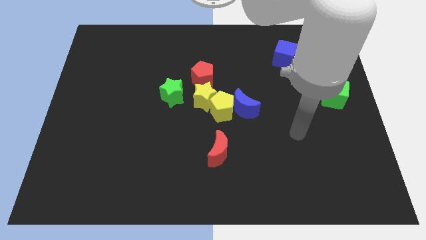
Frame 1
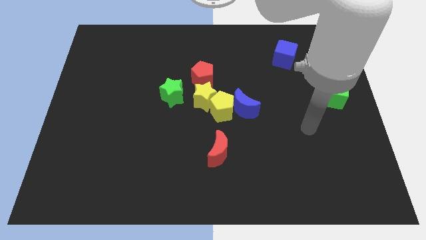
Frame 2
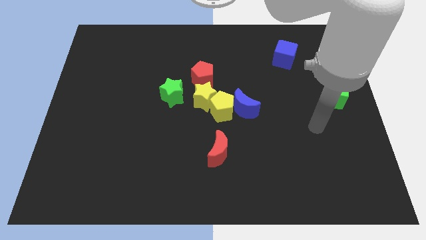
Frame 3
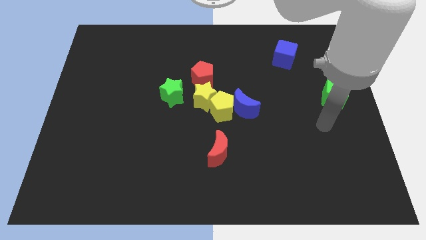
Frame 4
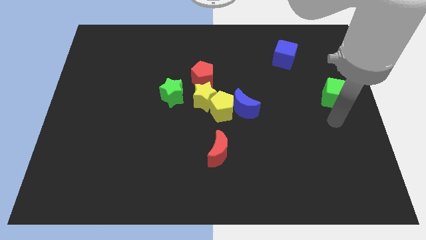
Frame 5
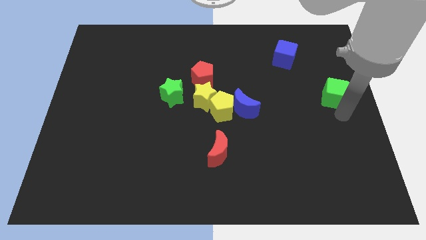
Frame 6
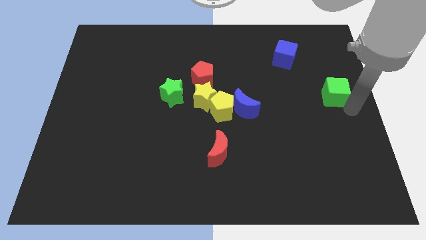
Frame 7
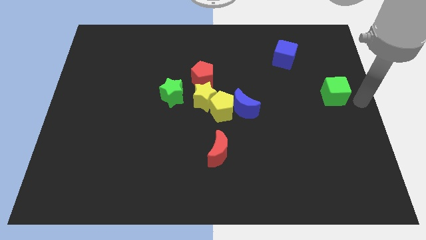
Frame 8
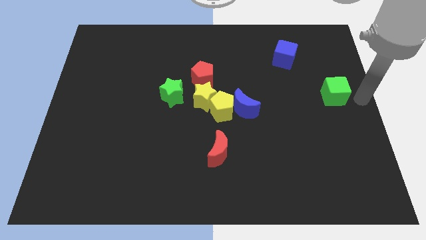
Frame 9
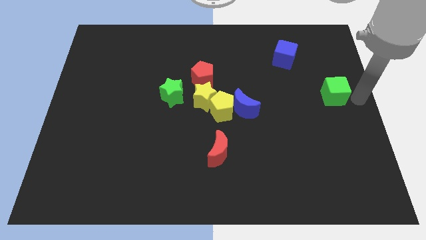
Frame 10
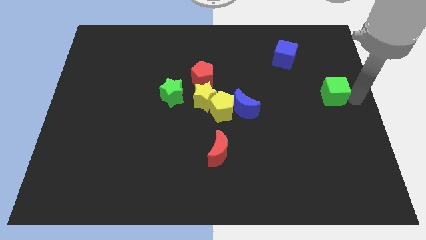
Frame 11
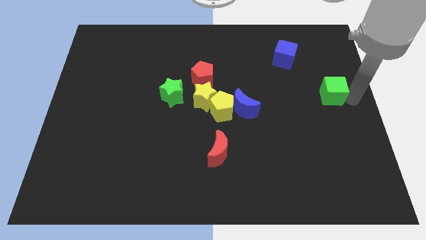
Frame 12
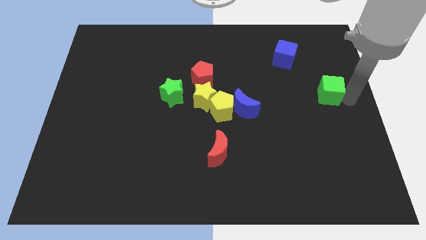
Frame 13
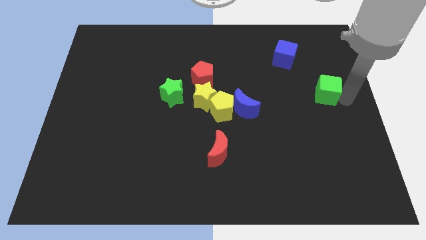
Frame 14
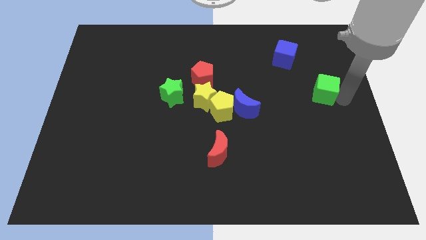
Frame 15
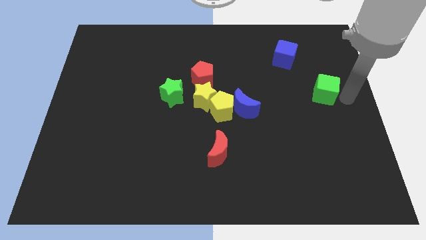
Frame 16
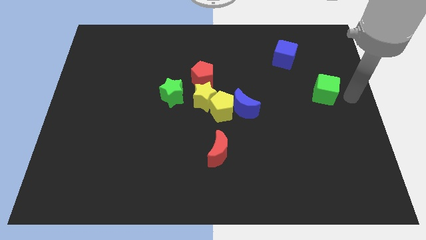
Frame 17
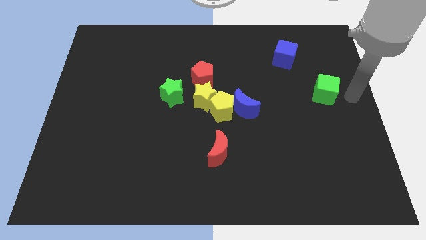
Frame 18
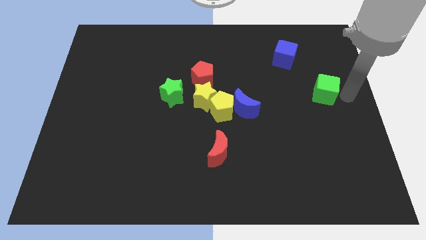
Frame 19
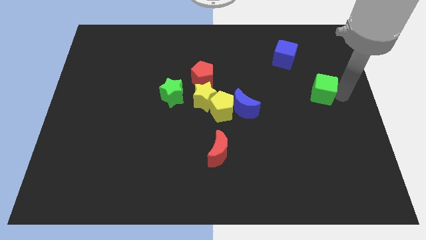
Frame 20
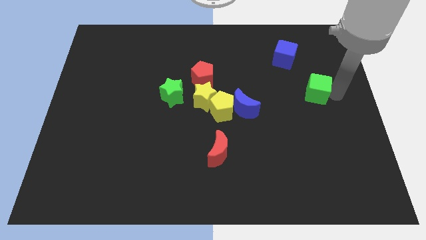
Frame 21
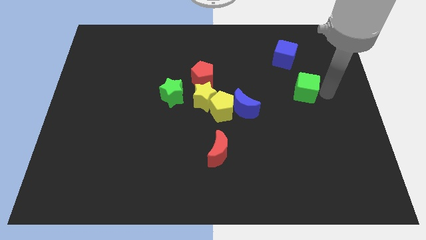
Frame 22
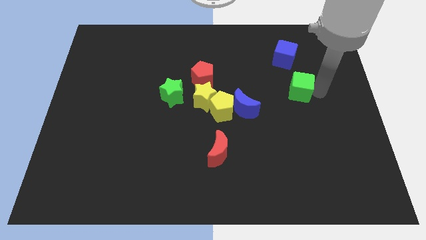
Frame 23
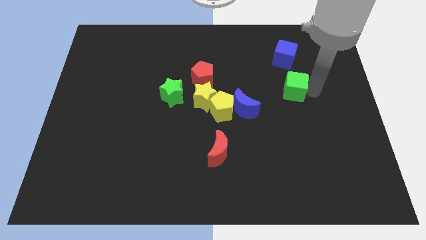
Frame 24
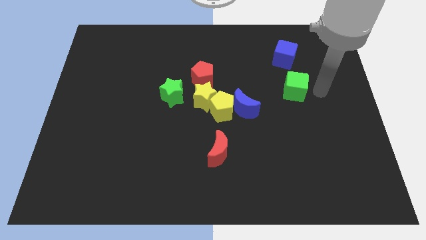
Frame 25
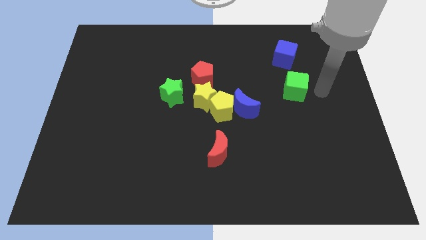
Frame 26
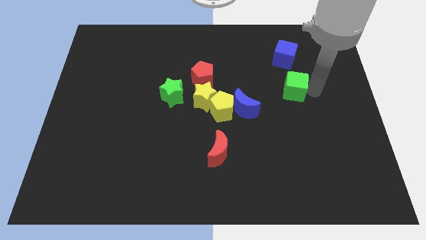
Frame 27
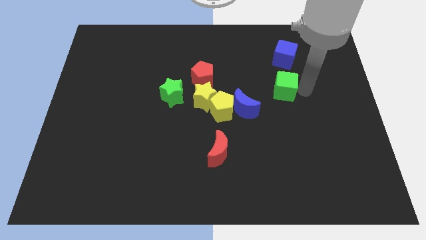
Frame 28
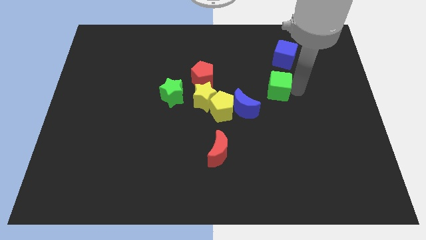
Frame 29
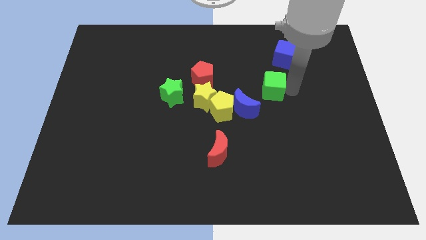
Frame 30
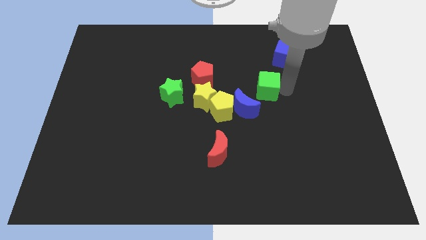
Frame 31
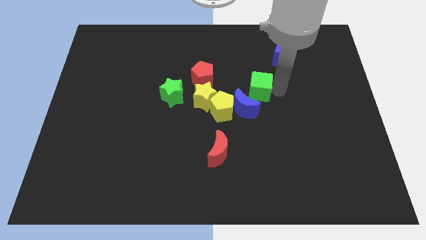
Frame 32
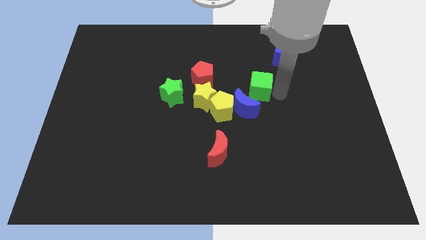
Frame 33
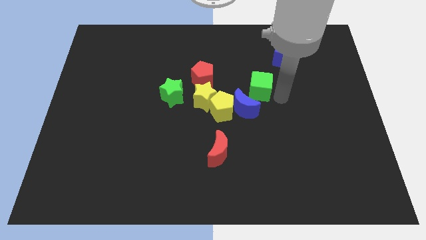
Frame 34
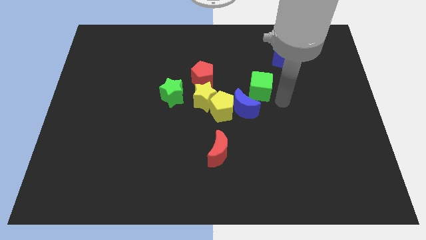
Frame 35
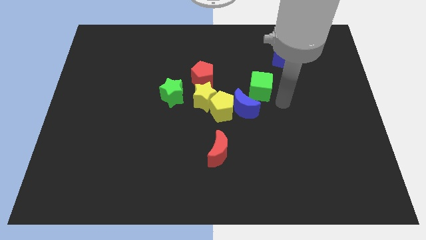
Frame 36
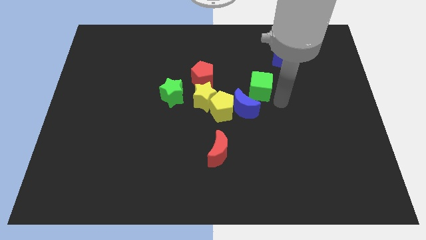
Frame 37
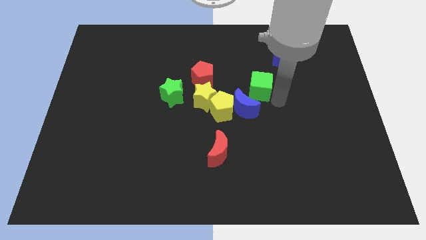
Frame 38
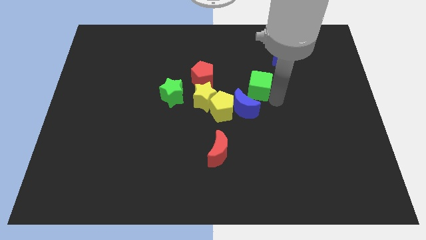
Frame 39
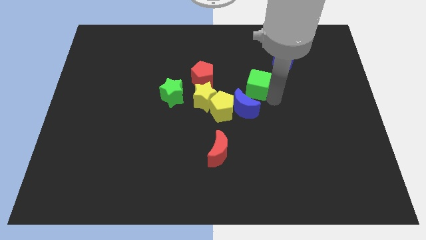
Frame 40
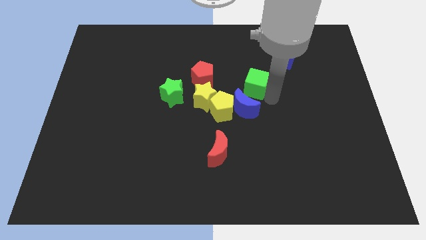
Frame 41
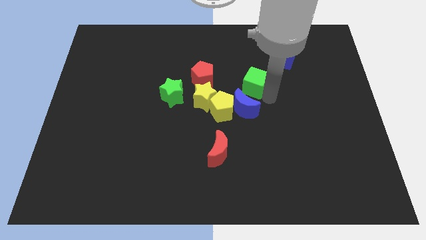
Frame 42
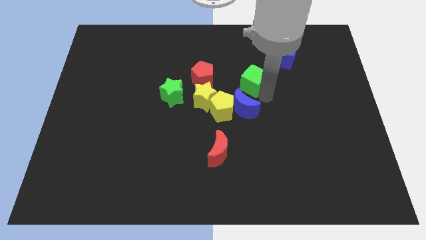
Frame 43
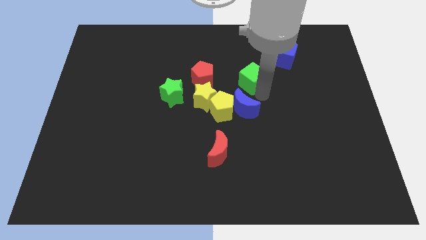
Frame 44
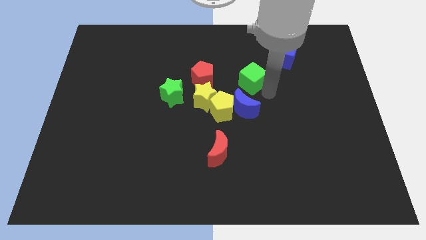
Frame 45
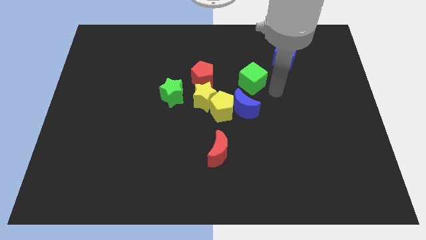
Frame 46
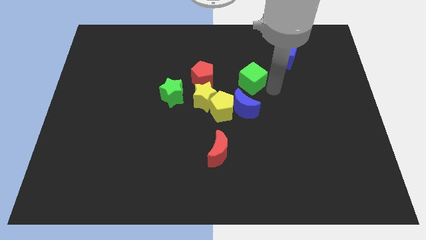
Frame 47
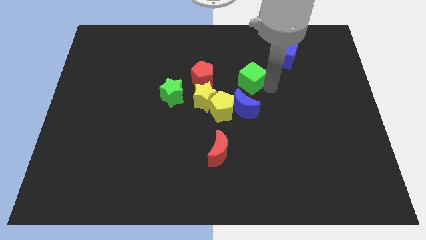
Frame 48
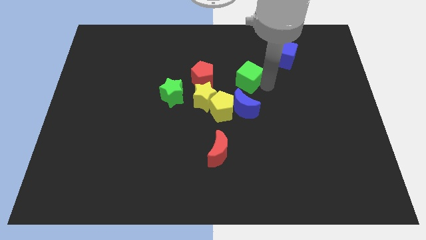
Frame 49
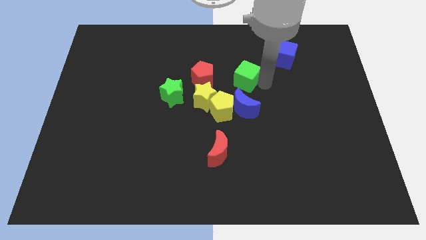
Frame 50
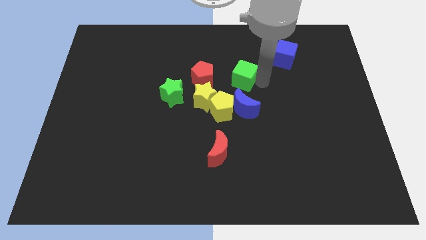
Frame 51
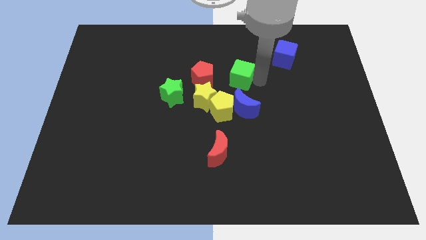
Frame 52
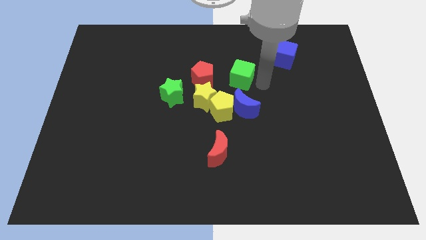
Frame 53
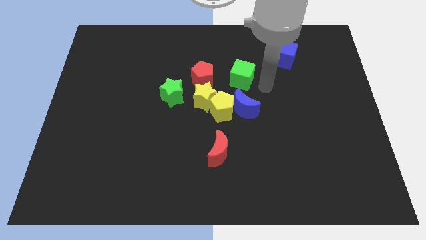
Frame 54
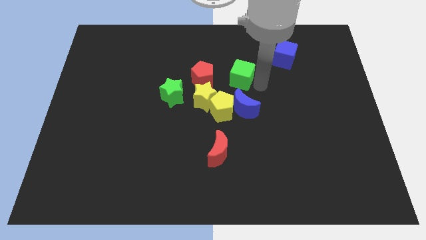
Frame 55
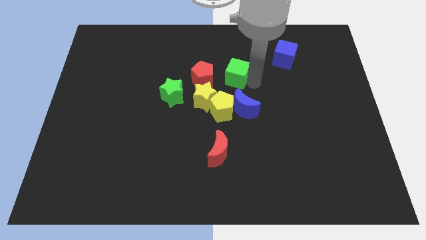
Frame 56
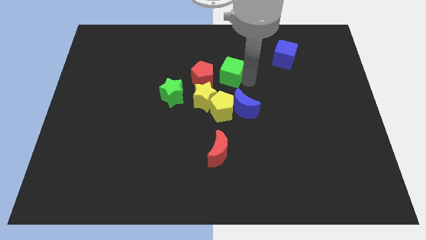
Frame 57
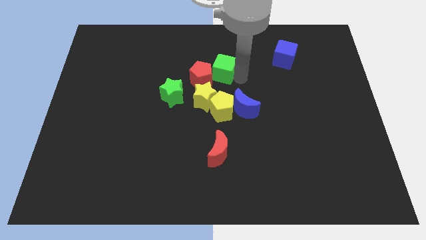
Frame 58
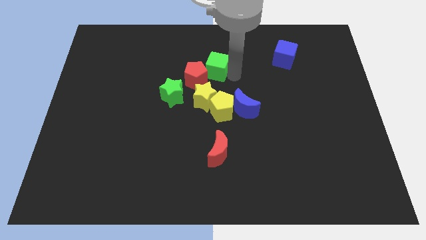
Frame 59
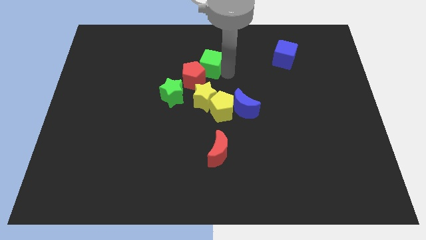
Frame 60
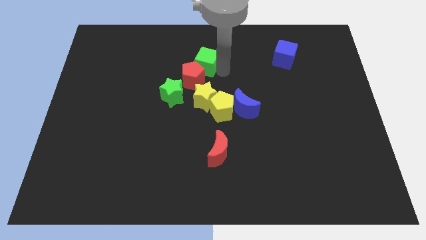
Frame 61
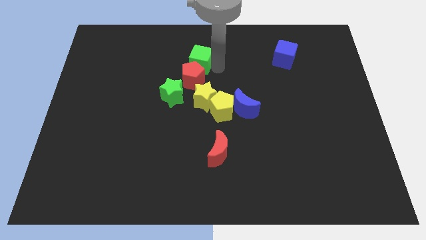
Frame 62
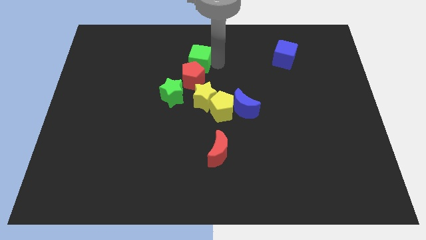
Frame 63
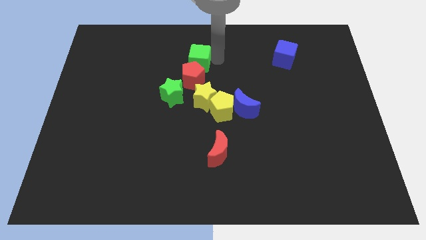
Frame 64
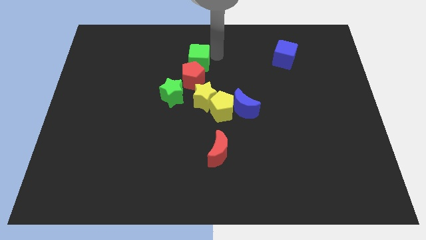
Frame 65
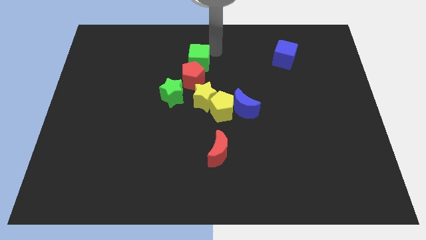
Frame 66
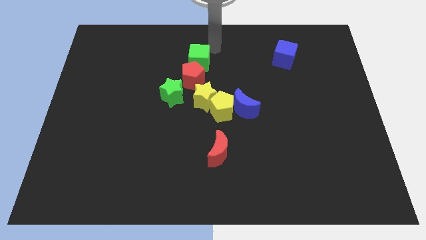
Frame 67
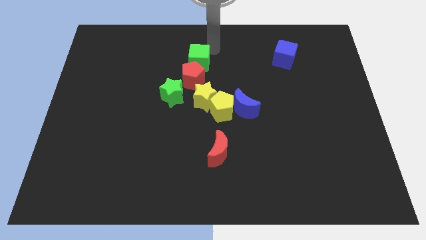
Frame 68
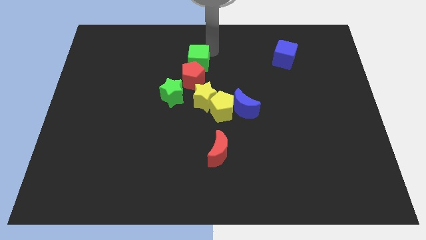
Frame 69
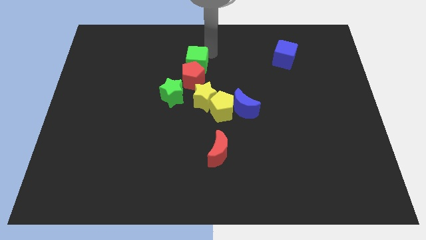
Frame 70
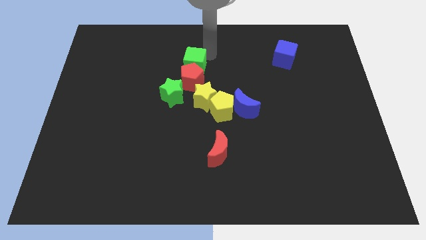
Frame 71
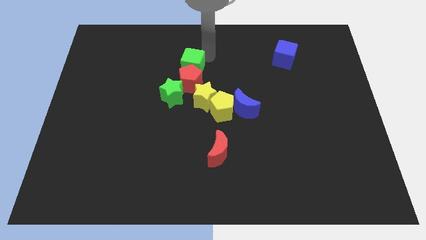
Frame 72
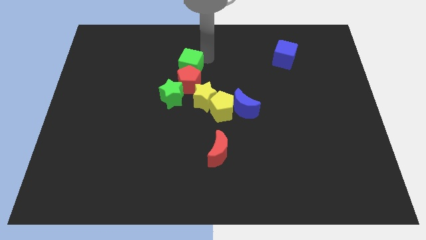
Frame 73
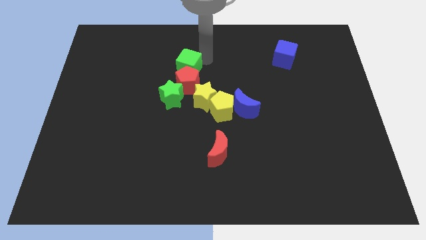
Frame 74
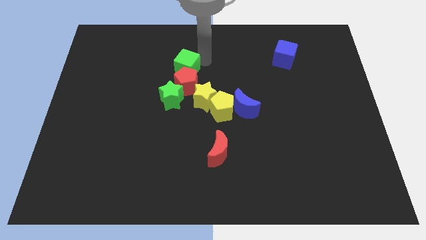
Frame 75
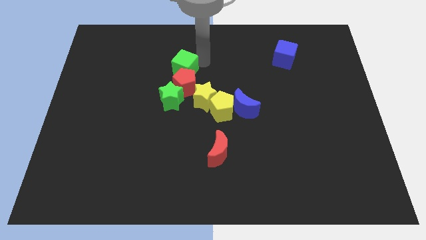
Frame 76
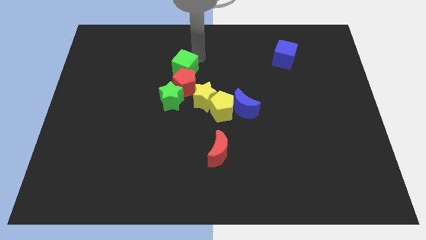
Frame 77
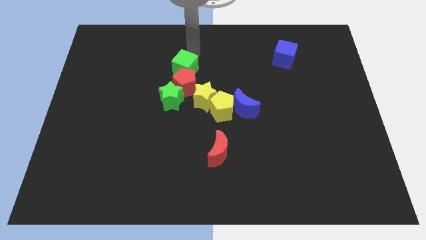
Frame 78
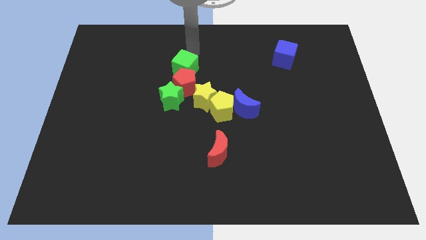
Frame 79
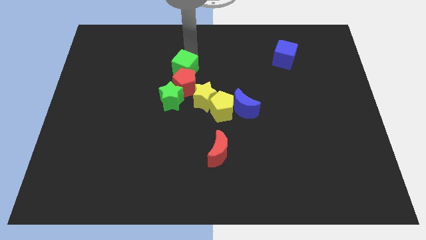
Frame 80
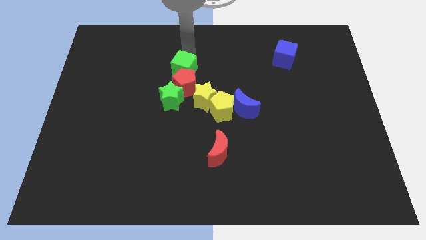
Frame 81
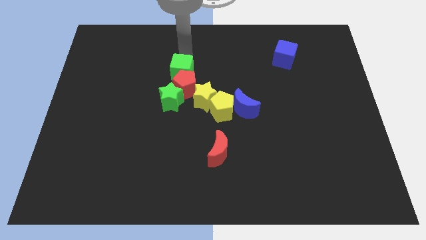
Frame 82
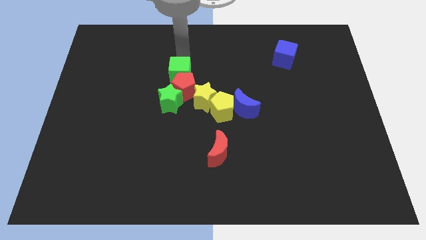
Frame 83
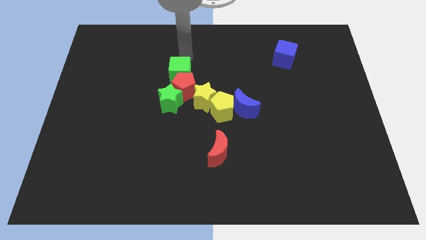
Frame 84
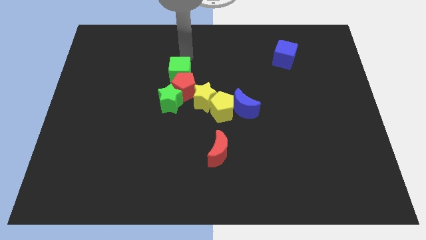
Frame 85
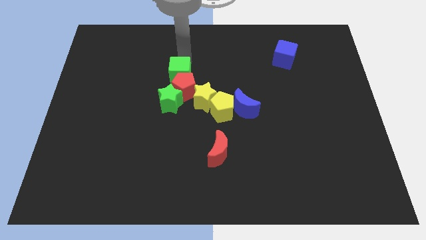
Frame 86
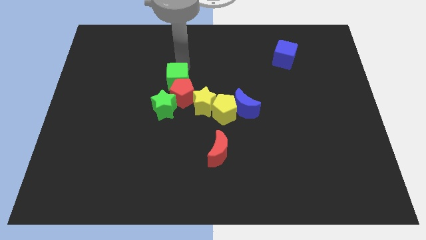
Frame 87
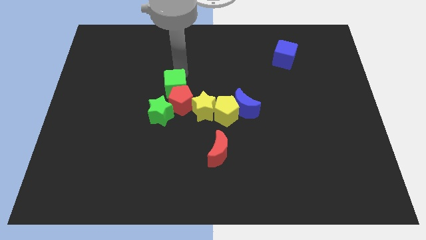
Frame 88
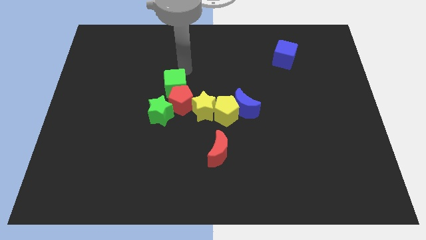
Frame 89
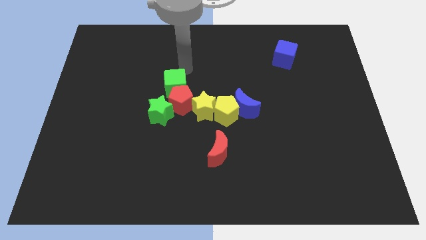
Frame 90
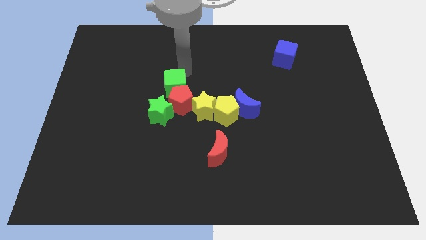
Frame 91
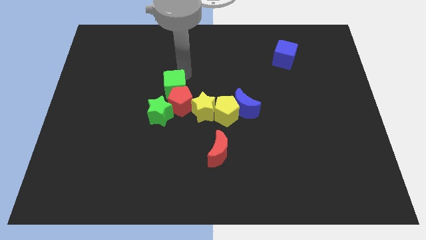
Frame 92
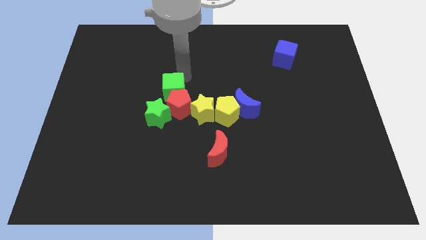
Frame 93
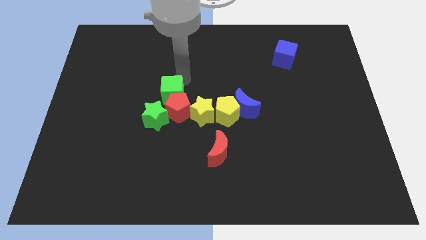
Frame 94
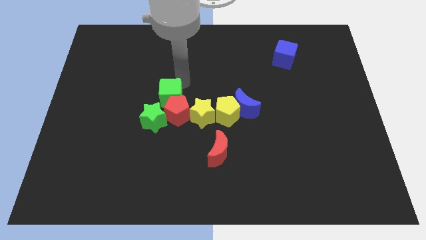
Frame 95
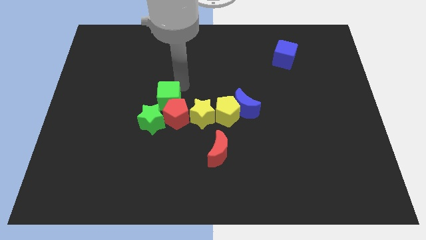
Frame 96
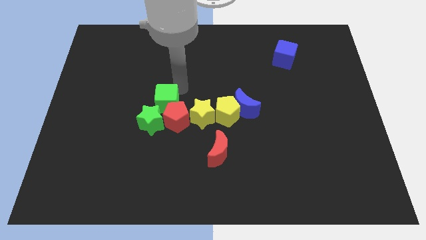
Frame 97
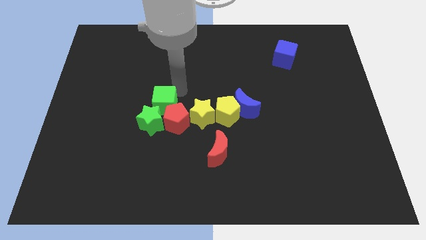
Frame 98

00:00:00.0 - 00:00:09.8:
push the green cube close to the green star
